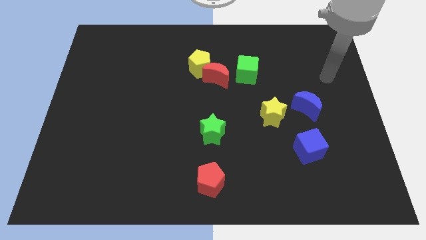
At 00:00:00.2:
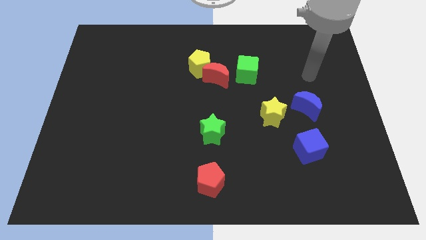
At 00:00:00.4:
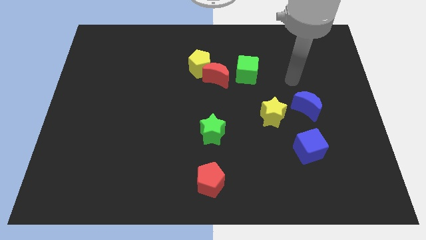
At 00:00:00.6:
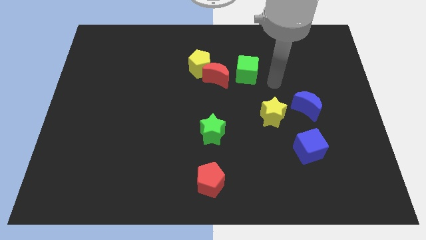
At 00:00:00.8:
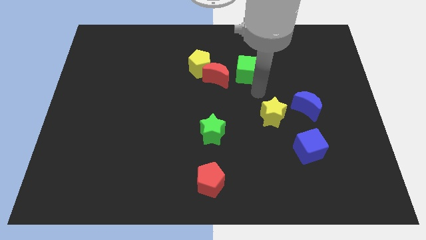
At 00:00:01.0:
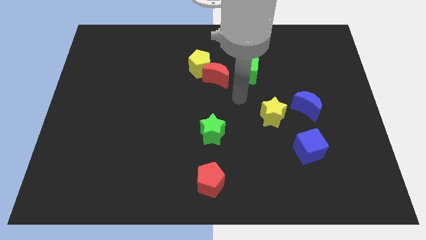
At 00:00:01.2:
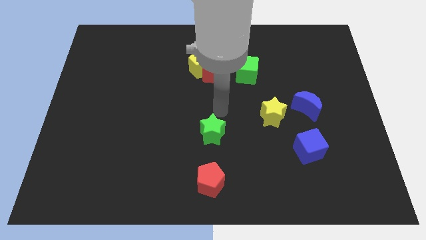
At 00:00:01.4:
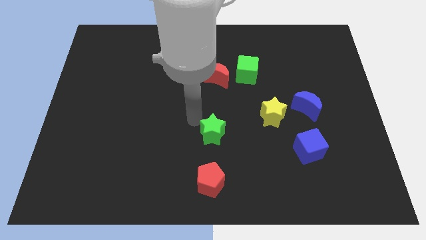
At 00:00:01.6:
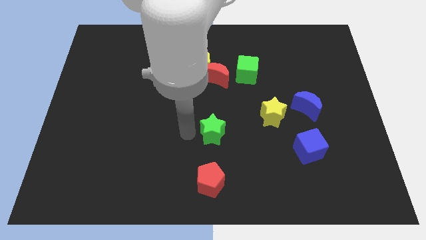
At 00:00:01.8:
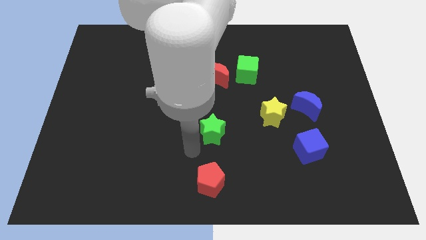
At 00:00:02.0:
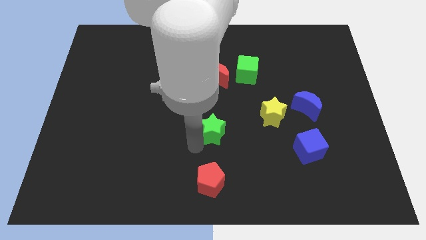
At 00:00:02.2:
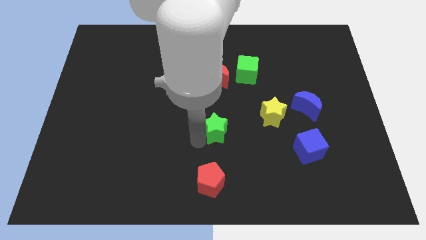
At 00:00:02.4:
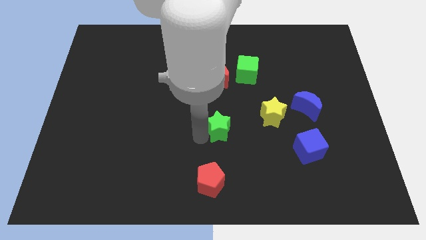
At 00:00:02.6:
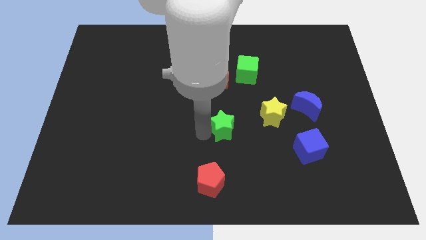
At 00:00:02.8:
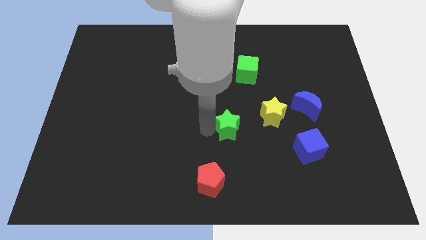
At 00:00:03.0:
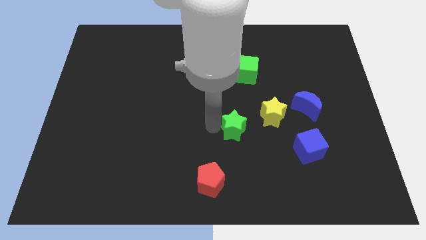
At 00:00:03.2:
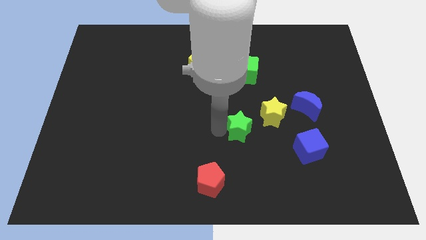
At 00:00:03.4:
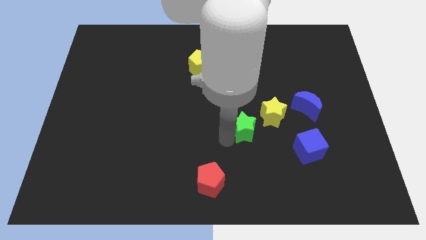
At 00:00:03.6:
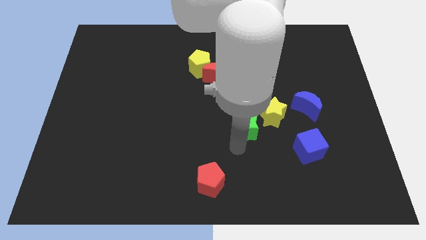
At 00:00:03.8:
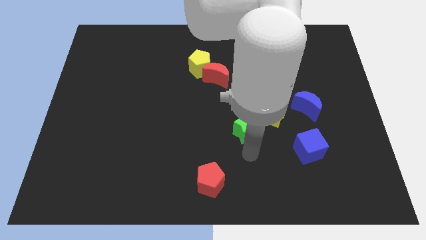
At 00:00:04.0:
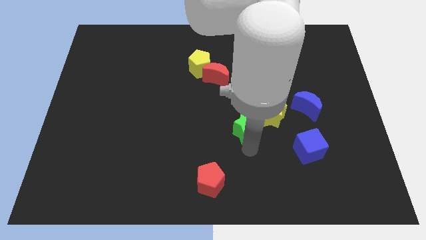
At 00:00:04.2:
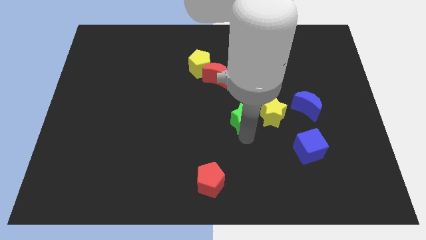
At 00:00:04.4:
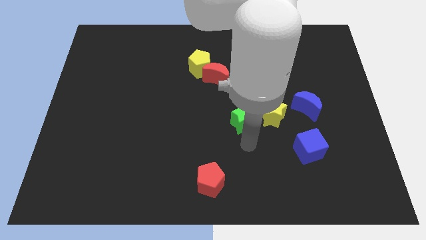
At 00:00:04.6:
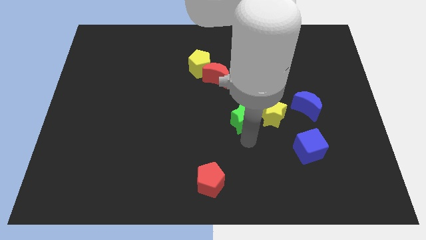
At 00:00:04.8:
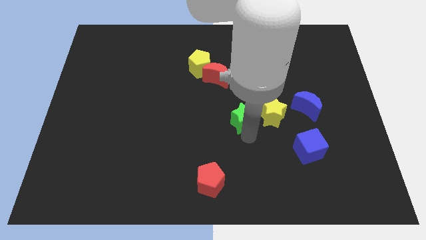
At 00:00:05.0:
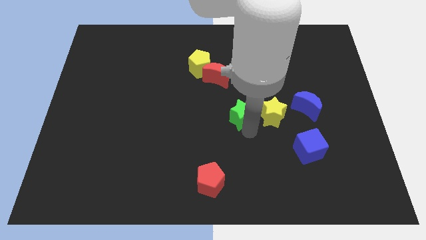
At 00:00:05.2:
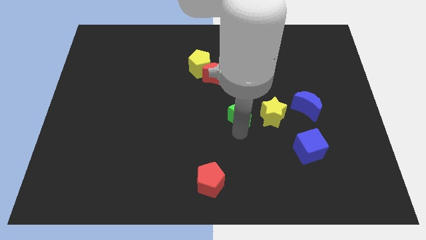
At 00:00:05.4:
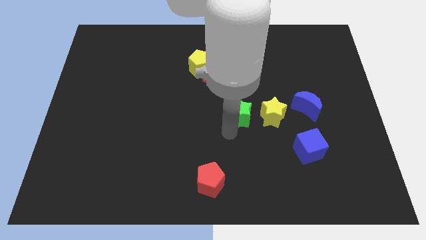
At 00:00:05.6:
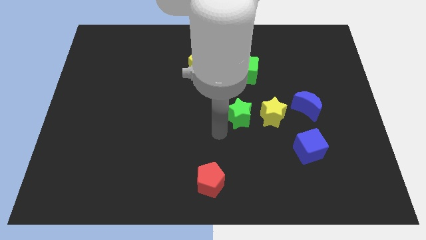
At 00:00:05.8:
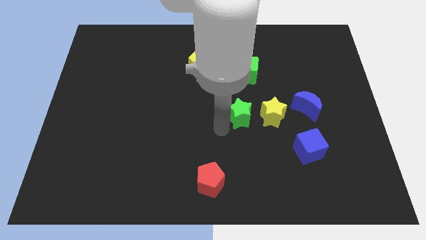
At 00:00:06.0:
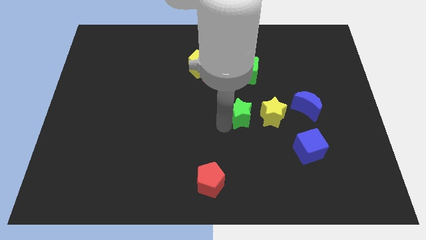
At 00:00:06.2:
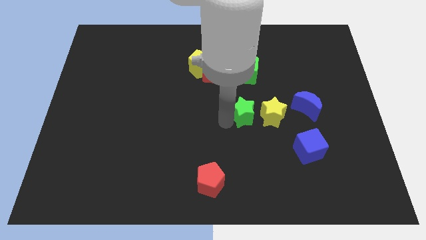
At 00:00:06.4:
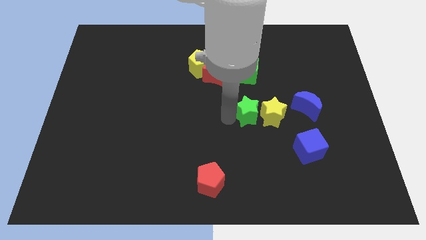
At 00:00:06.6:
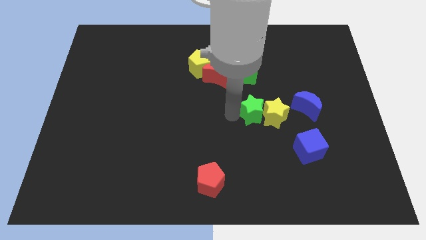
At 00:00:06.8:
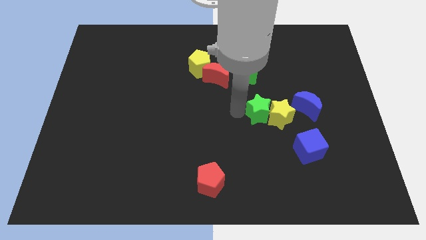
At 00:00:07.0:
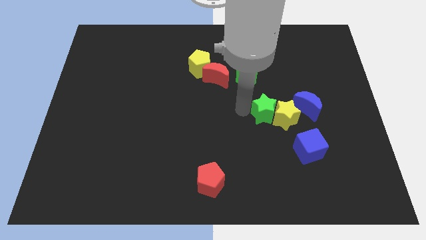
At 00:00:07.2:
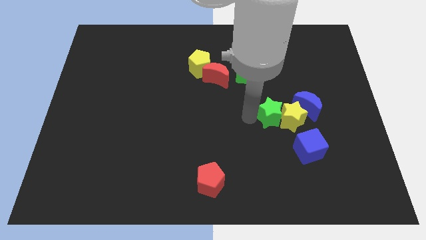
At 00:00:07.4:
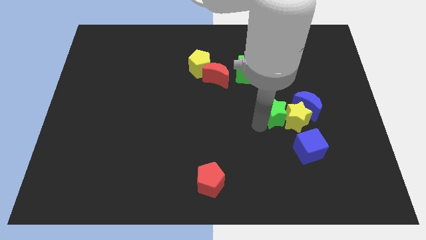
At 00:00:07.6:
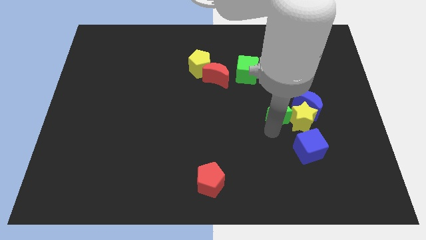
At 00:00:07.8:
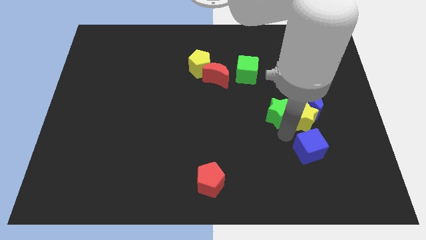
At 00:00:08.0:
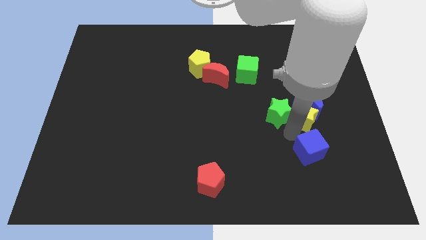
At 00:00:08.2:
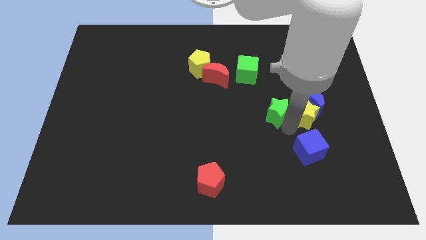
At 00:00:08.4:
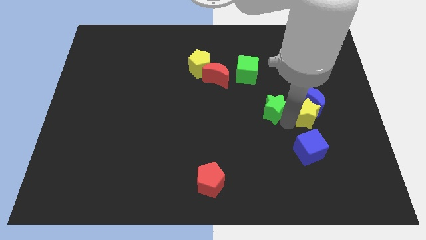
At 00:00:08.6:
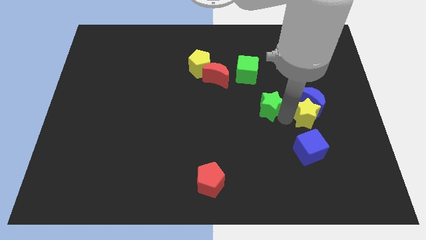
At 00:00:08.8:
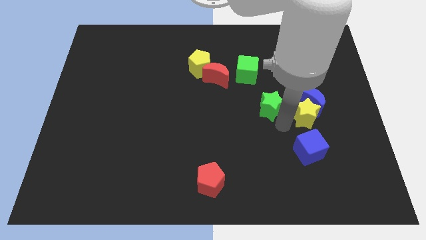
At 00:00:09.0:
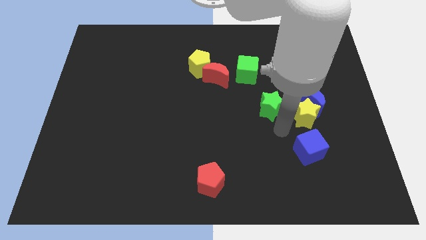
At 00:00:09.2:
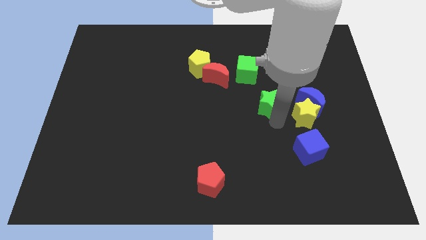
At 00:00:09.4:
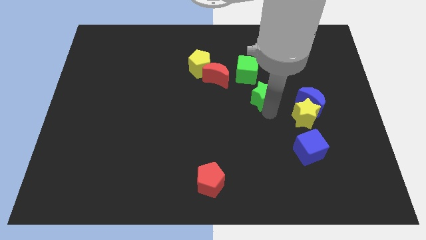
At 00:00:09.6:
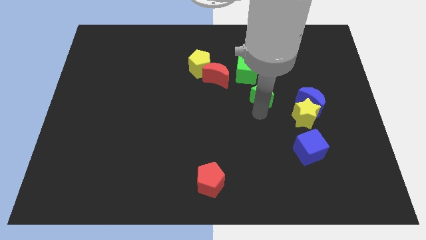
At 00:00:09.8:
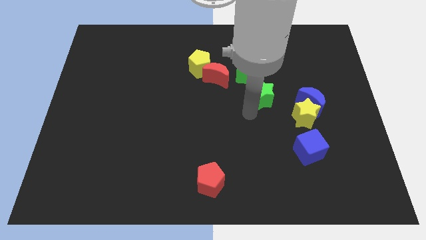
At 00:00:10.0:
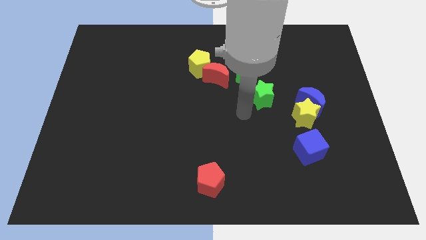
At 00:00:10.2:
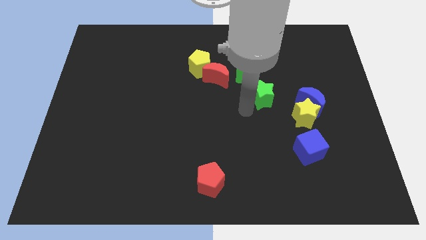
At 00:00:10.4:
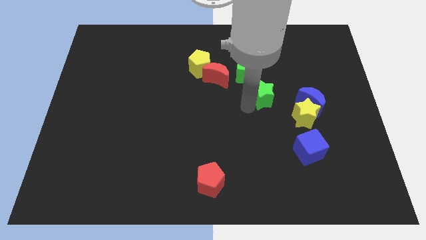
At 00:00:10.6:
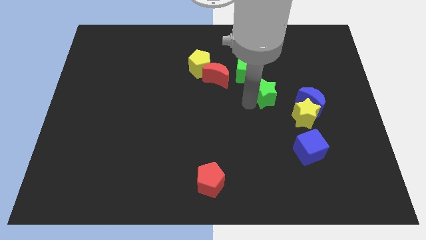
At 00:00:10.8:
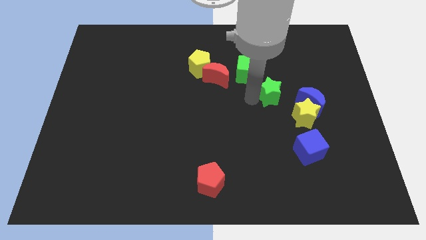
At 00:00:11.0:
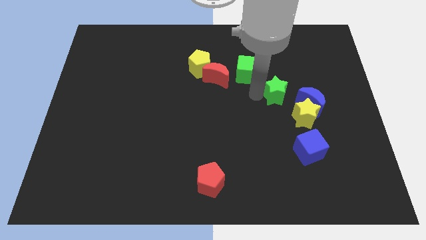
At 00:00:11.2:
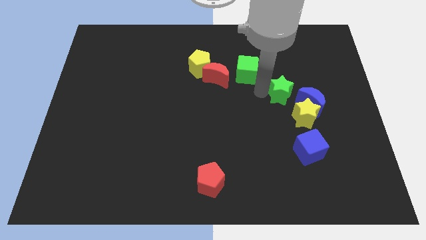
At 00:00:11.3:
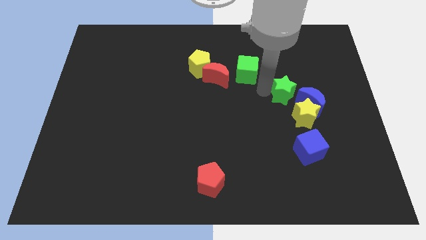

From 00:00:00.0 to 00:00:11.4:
move the green star diagonally upwards and right

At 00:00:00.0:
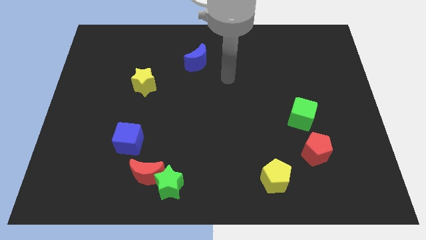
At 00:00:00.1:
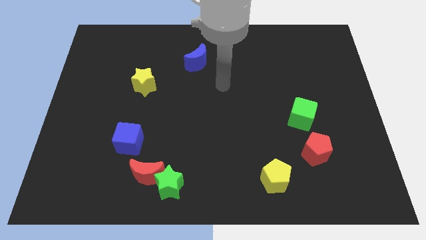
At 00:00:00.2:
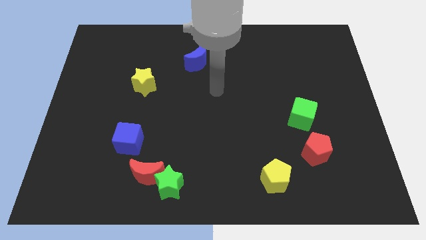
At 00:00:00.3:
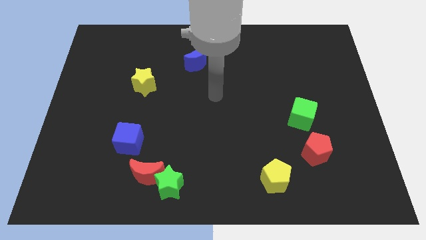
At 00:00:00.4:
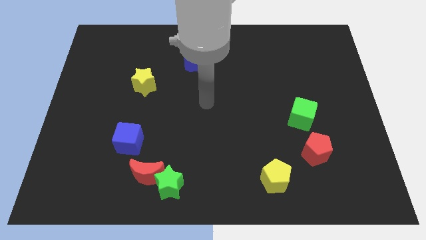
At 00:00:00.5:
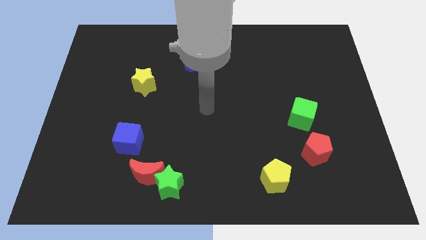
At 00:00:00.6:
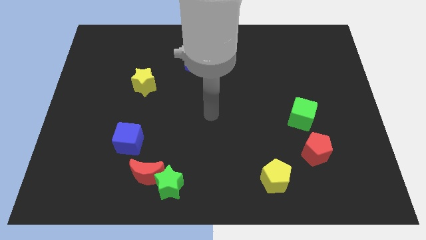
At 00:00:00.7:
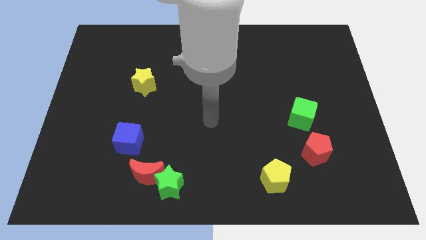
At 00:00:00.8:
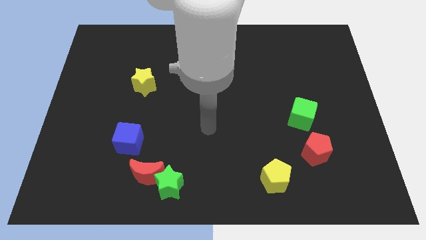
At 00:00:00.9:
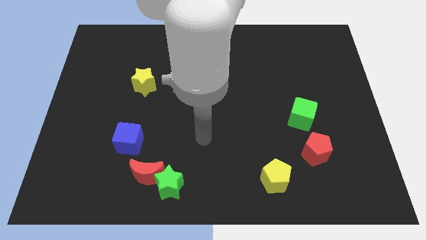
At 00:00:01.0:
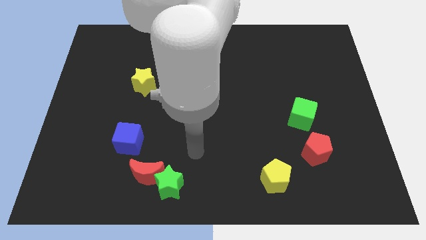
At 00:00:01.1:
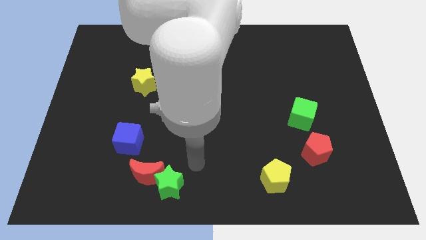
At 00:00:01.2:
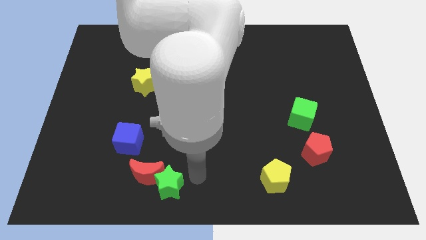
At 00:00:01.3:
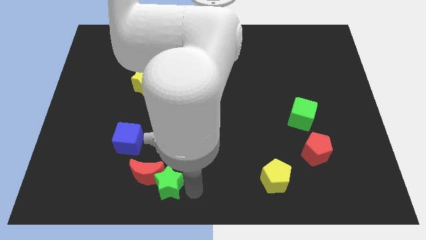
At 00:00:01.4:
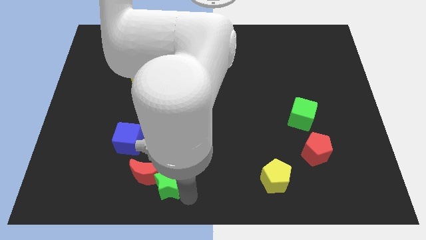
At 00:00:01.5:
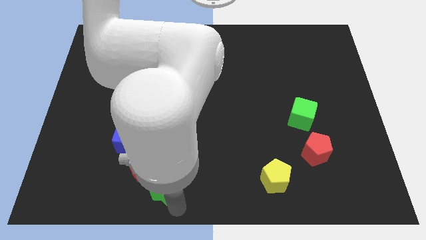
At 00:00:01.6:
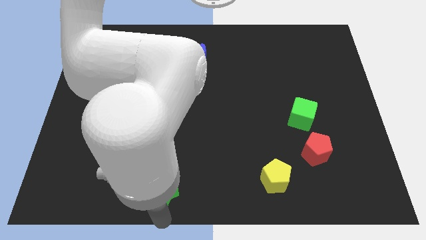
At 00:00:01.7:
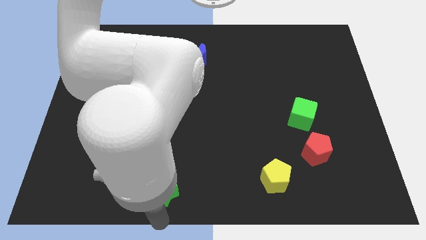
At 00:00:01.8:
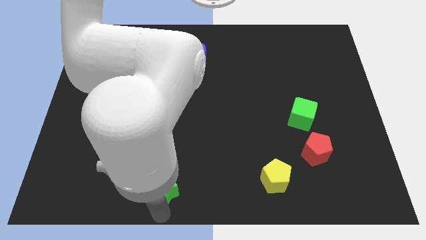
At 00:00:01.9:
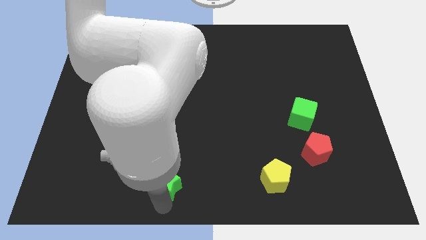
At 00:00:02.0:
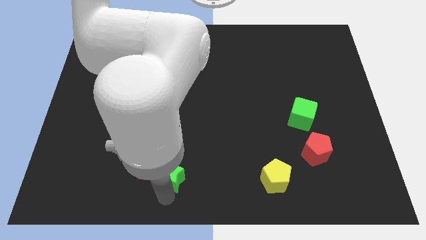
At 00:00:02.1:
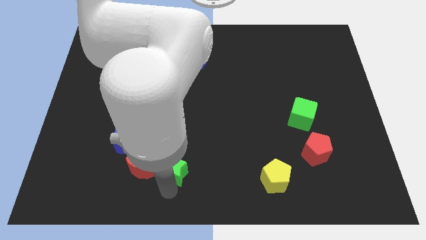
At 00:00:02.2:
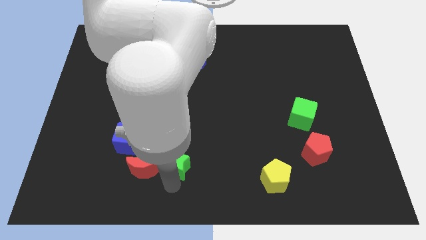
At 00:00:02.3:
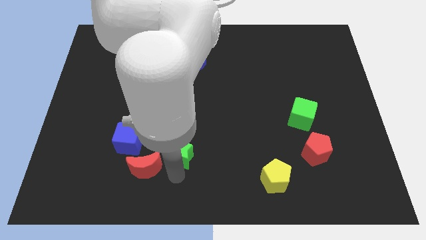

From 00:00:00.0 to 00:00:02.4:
move the green star upwards a little
